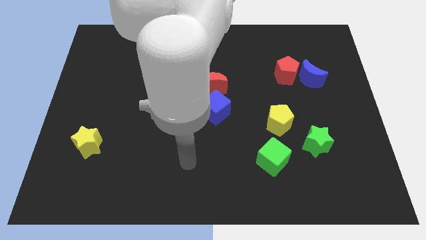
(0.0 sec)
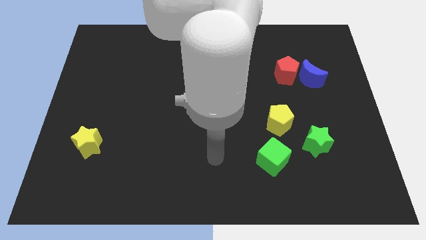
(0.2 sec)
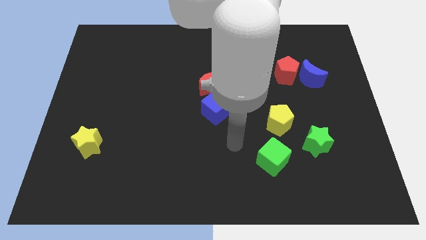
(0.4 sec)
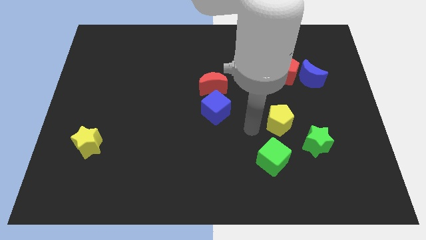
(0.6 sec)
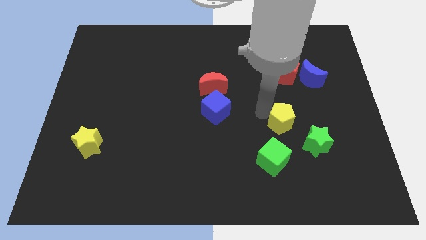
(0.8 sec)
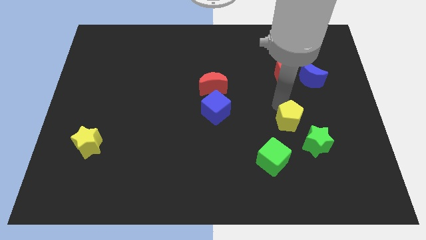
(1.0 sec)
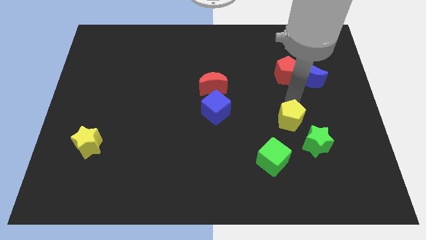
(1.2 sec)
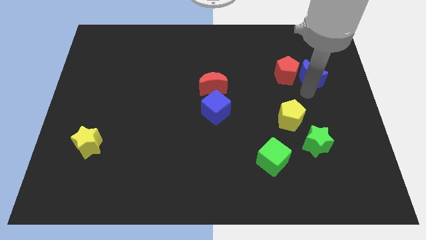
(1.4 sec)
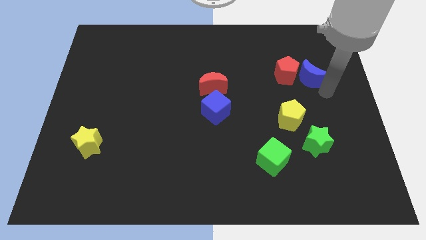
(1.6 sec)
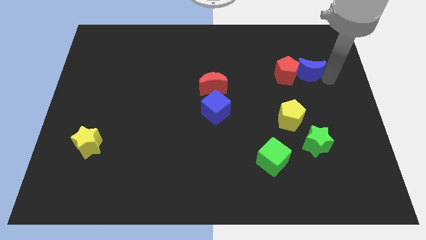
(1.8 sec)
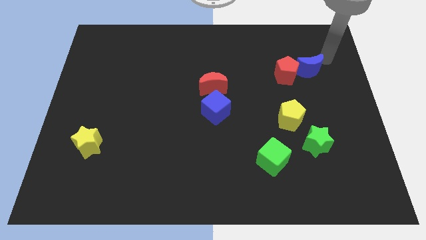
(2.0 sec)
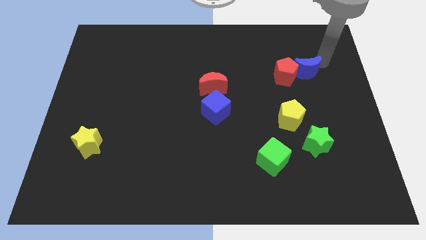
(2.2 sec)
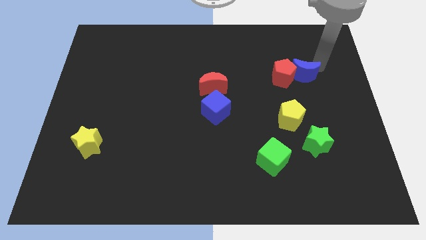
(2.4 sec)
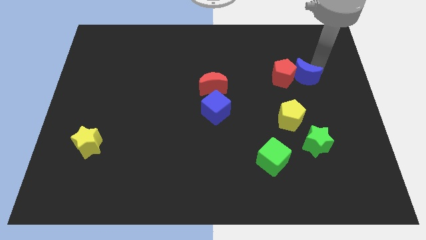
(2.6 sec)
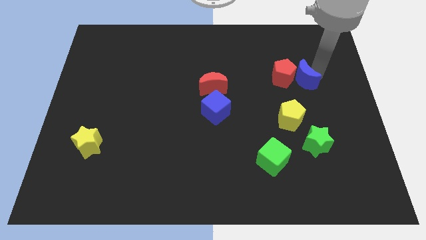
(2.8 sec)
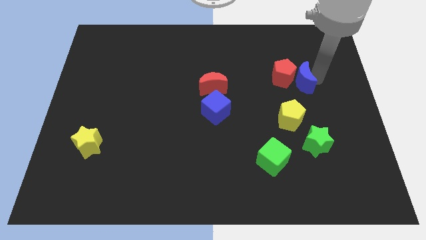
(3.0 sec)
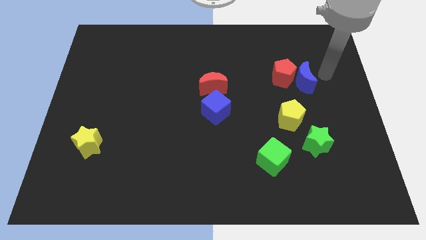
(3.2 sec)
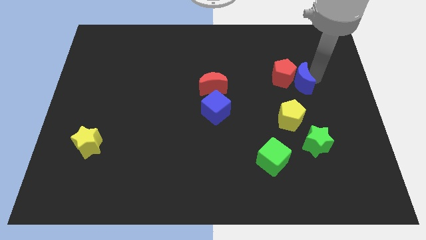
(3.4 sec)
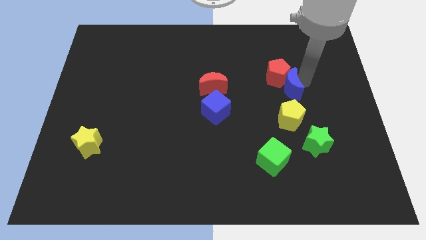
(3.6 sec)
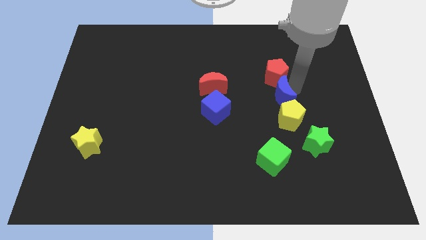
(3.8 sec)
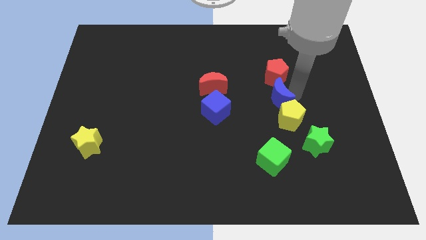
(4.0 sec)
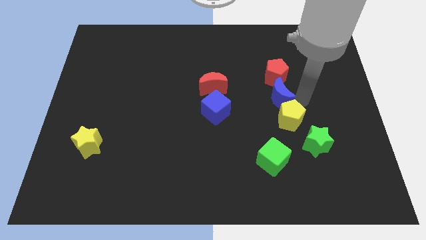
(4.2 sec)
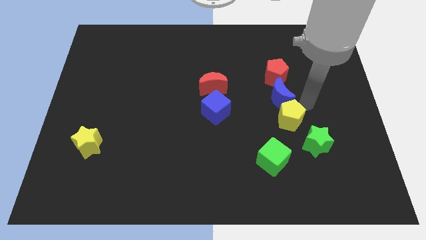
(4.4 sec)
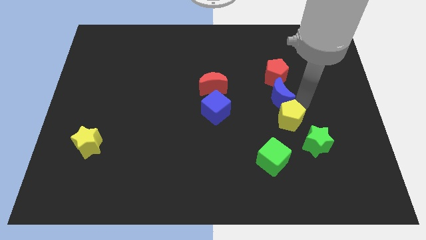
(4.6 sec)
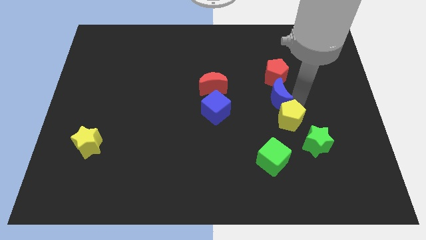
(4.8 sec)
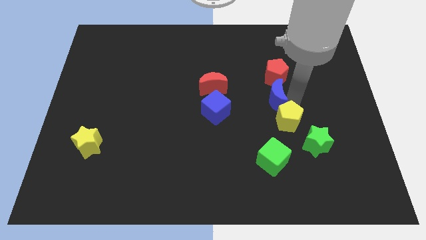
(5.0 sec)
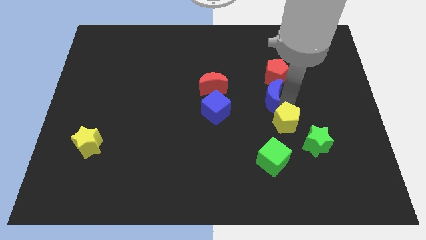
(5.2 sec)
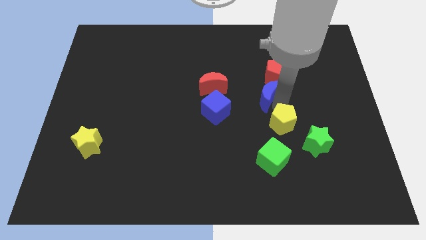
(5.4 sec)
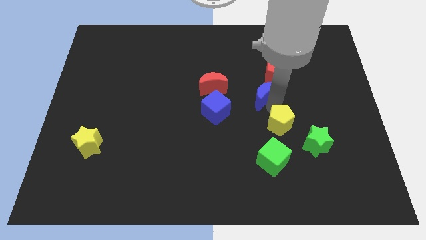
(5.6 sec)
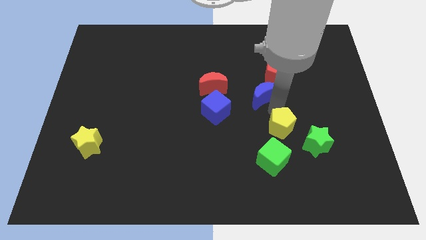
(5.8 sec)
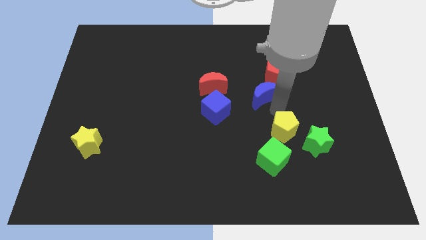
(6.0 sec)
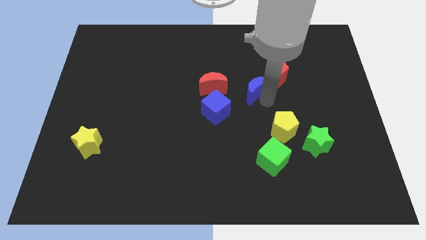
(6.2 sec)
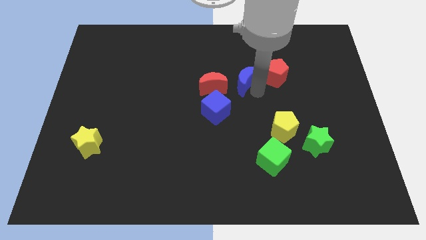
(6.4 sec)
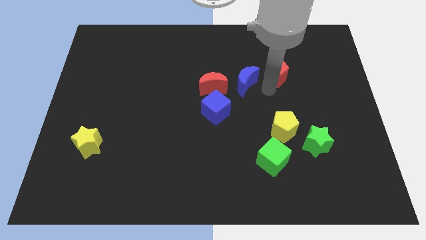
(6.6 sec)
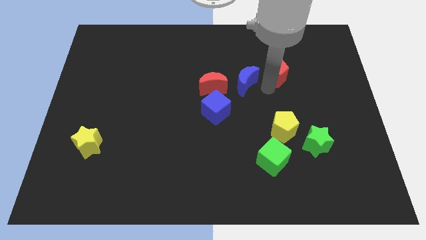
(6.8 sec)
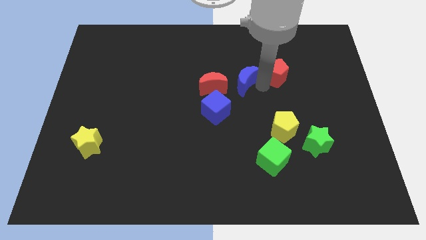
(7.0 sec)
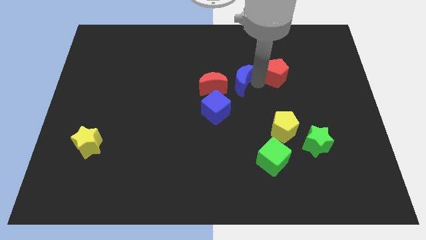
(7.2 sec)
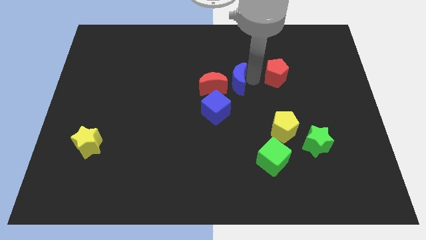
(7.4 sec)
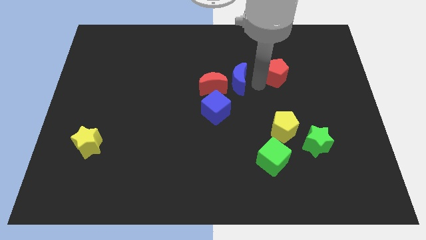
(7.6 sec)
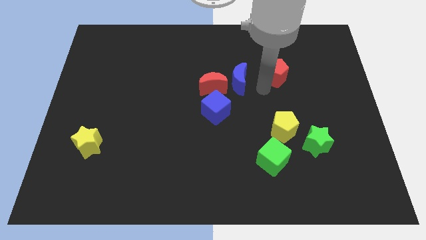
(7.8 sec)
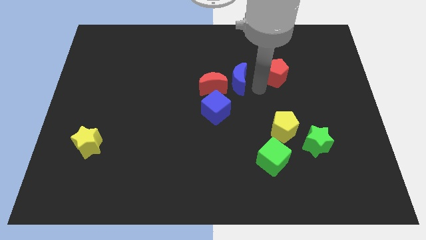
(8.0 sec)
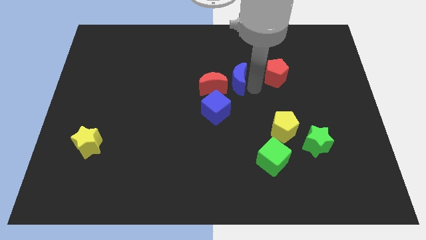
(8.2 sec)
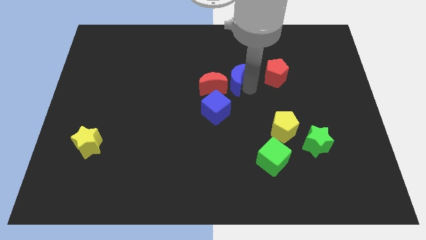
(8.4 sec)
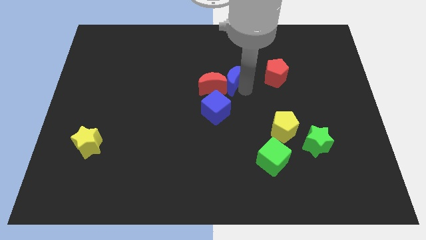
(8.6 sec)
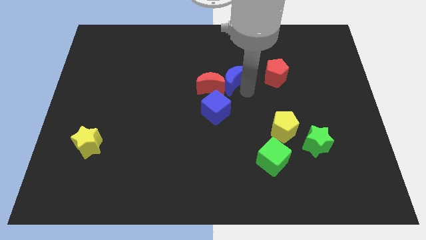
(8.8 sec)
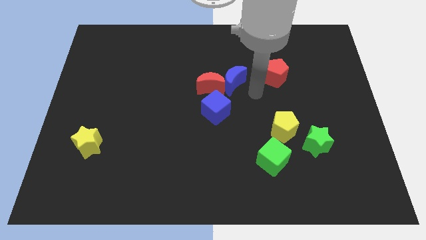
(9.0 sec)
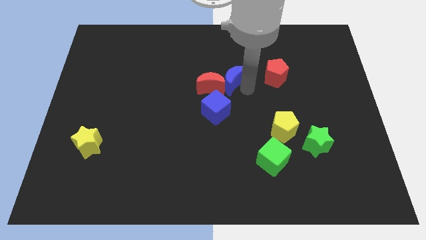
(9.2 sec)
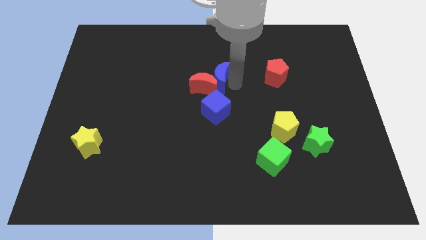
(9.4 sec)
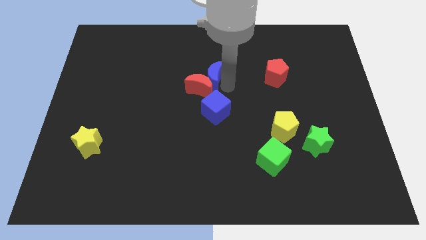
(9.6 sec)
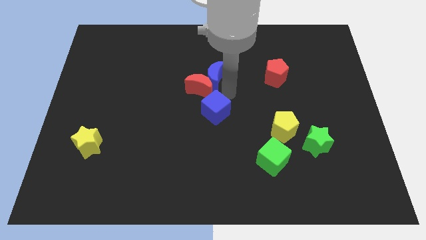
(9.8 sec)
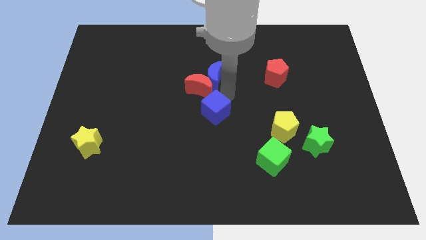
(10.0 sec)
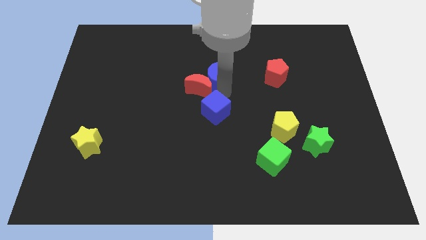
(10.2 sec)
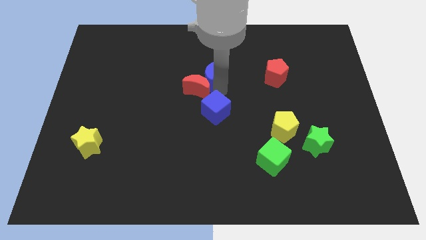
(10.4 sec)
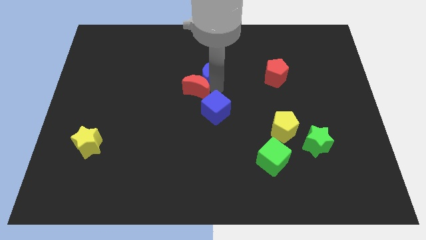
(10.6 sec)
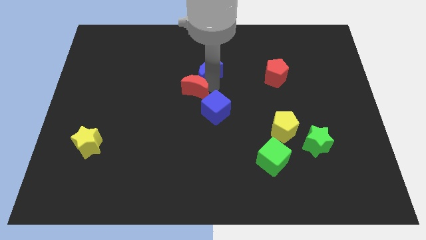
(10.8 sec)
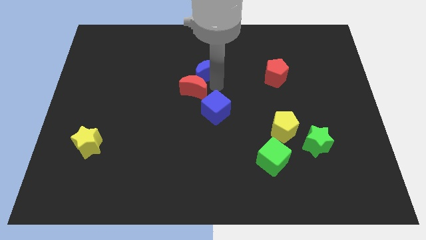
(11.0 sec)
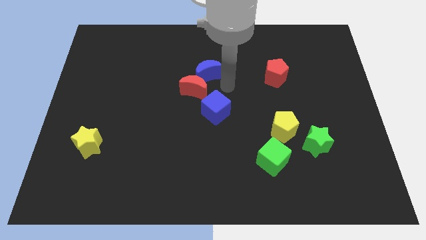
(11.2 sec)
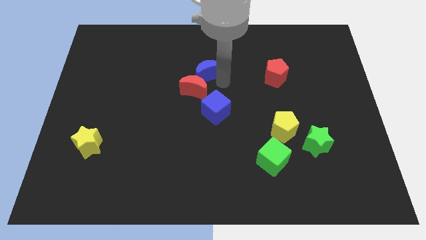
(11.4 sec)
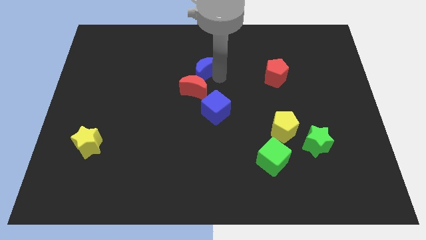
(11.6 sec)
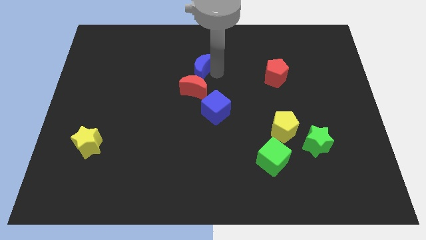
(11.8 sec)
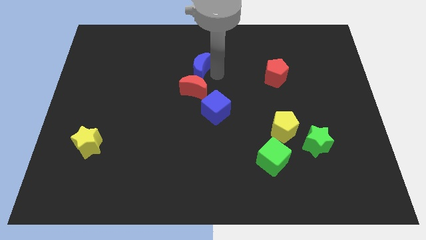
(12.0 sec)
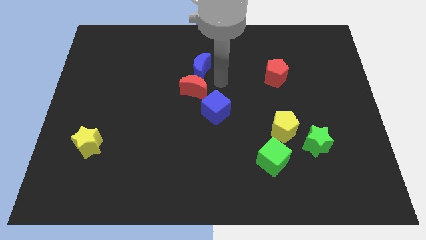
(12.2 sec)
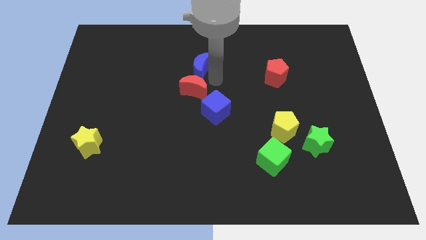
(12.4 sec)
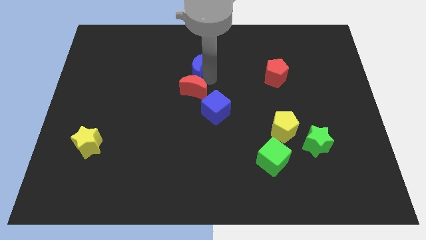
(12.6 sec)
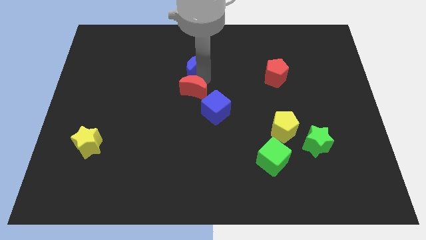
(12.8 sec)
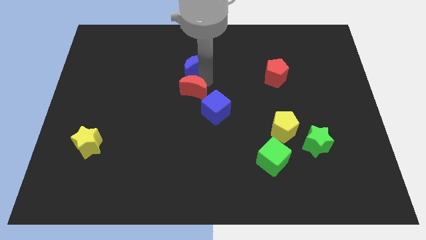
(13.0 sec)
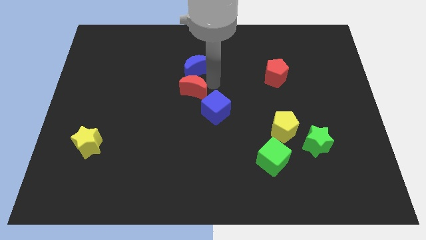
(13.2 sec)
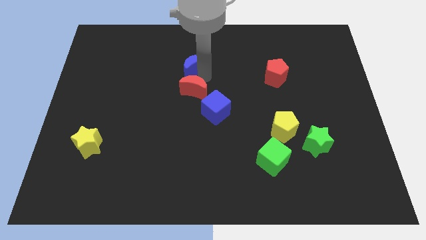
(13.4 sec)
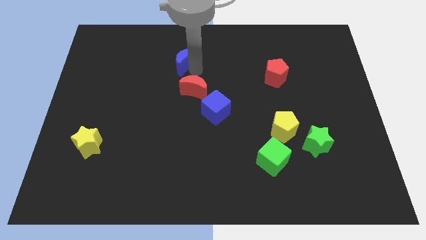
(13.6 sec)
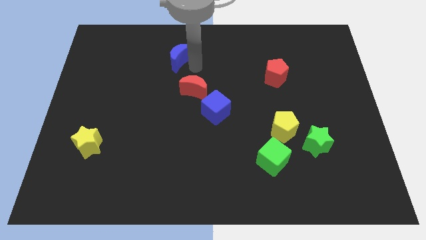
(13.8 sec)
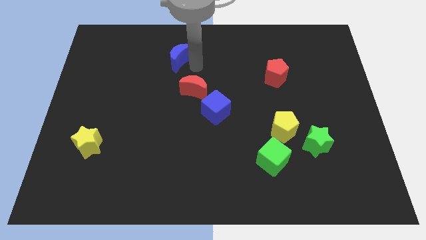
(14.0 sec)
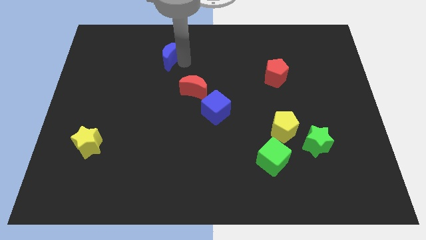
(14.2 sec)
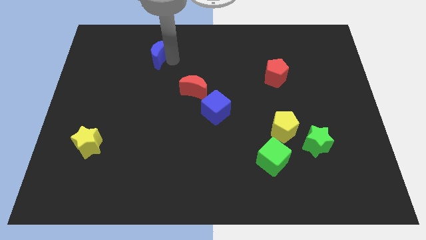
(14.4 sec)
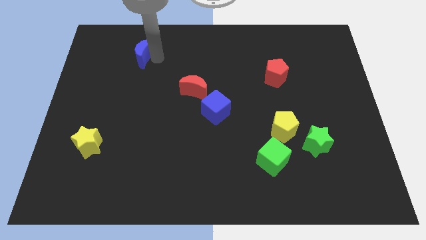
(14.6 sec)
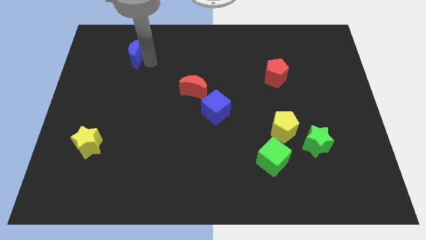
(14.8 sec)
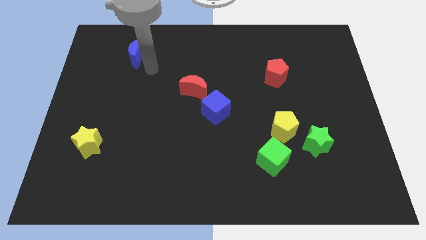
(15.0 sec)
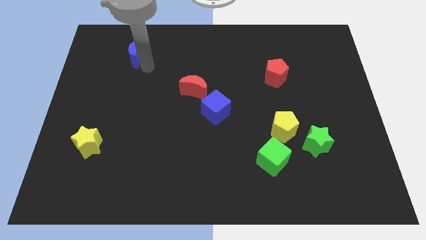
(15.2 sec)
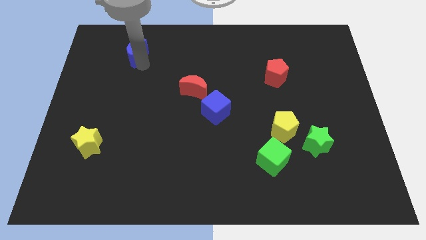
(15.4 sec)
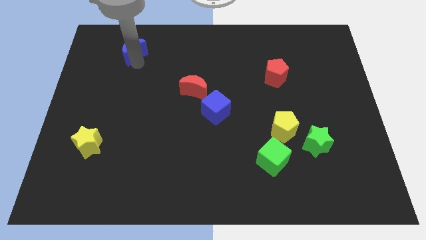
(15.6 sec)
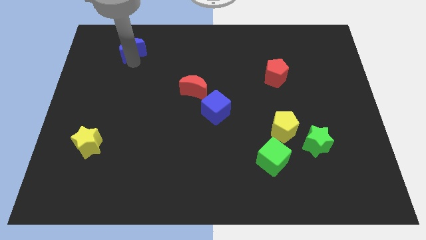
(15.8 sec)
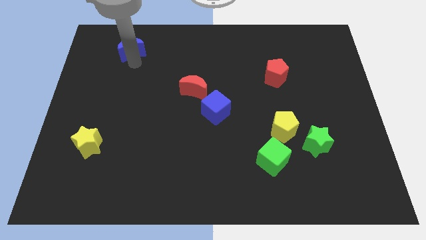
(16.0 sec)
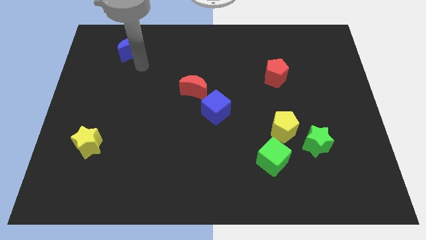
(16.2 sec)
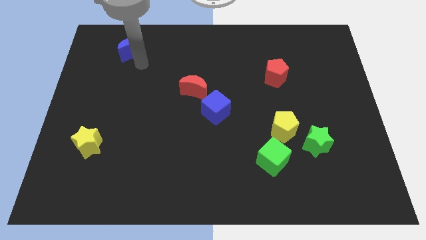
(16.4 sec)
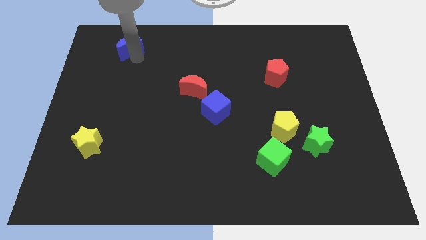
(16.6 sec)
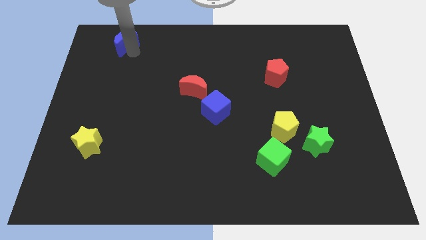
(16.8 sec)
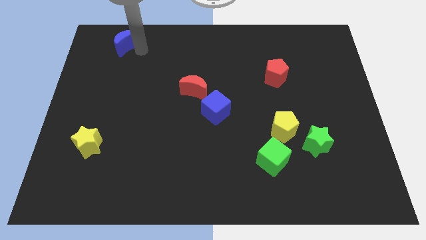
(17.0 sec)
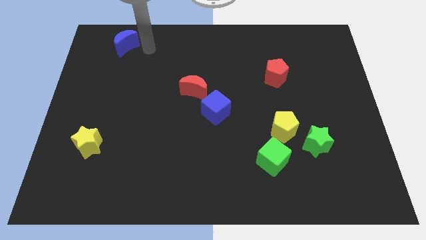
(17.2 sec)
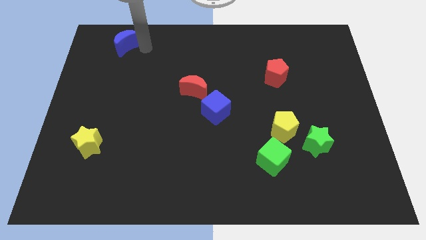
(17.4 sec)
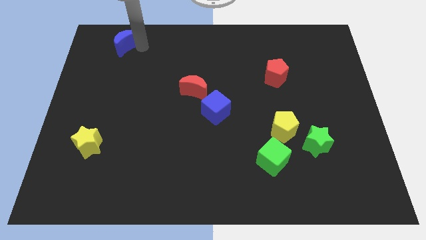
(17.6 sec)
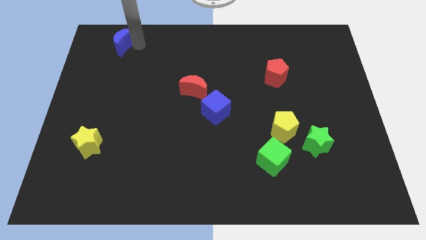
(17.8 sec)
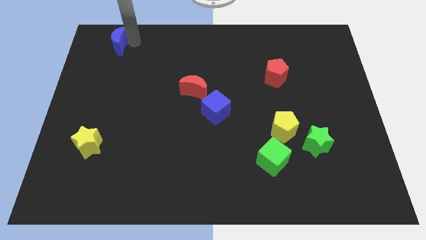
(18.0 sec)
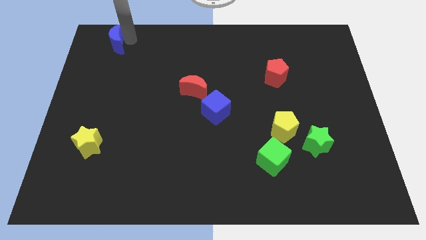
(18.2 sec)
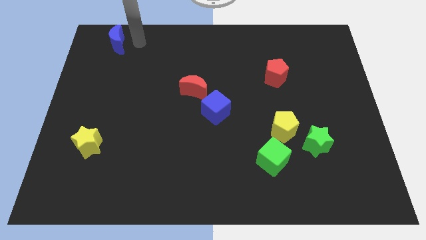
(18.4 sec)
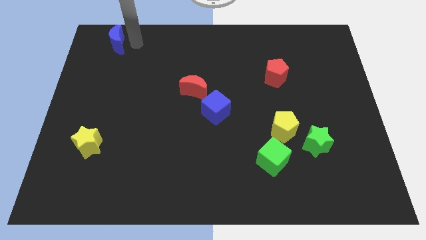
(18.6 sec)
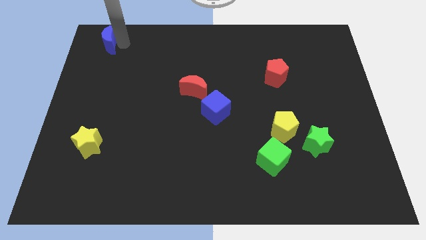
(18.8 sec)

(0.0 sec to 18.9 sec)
move the blue moon to the top left of the board
